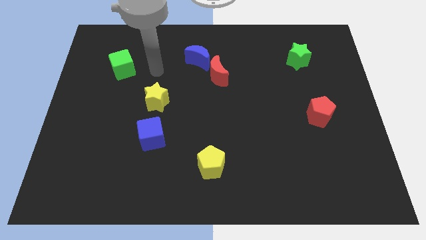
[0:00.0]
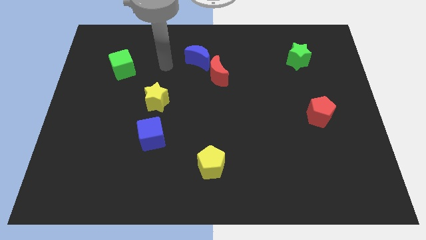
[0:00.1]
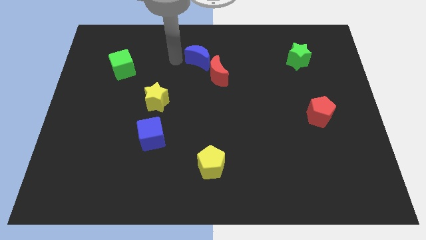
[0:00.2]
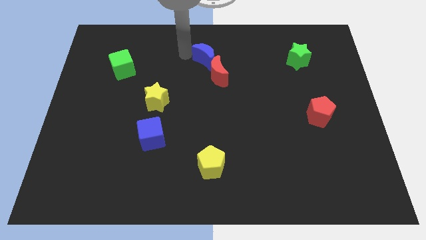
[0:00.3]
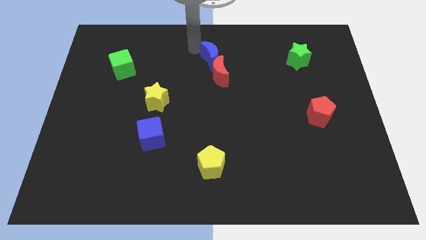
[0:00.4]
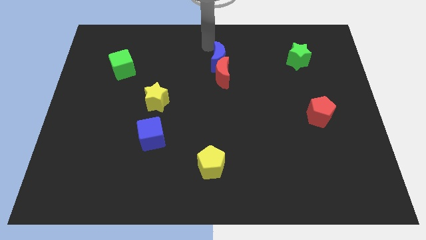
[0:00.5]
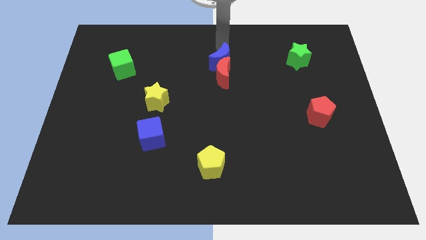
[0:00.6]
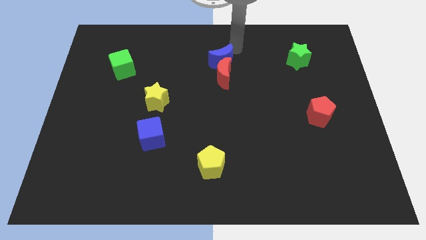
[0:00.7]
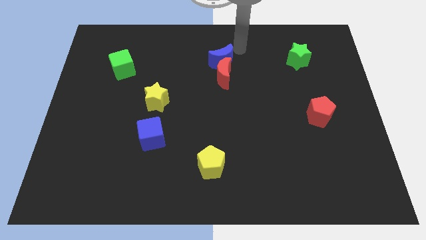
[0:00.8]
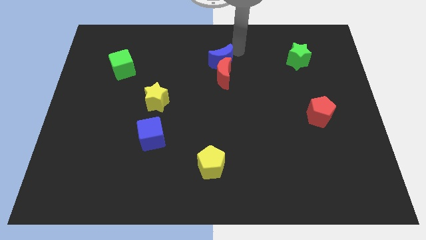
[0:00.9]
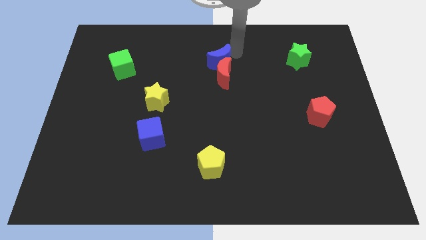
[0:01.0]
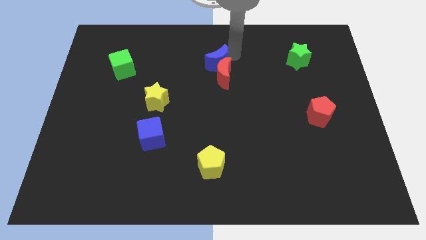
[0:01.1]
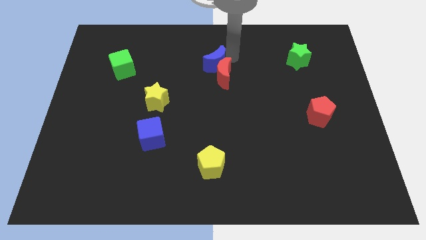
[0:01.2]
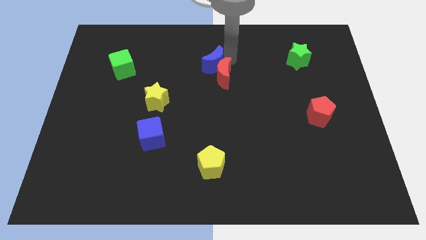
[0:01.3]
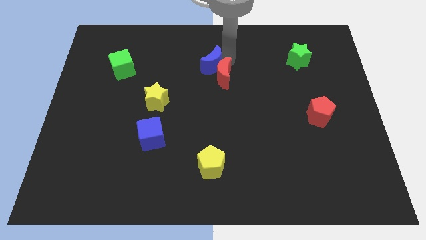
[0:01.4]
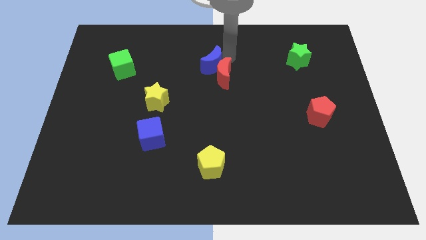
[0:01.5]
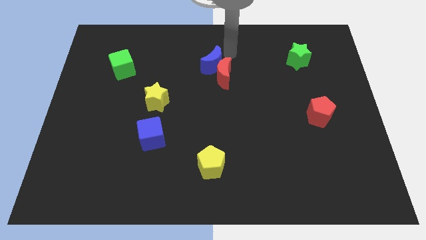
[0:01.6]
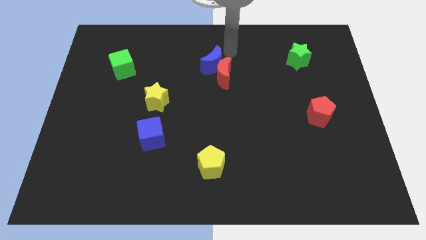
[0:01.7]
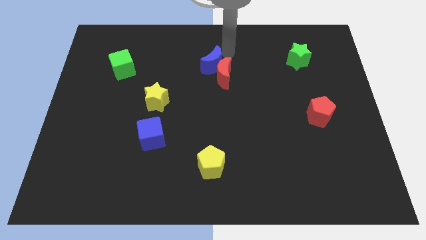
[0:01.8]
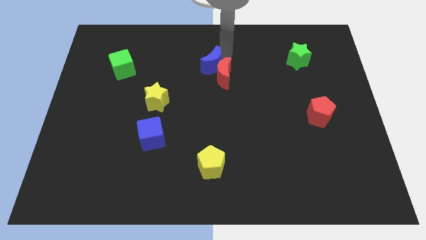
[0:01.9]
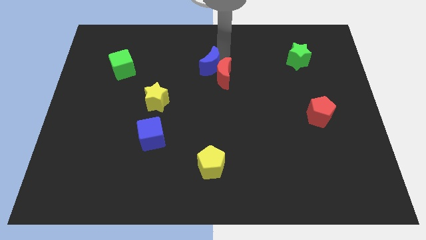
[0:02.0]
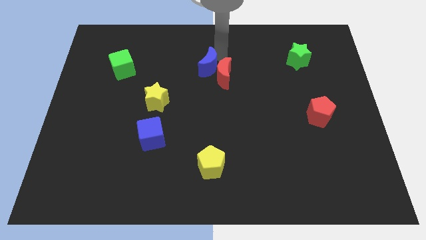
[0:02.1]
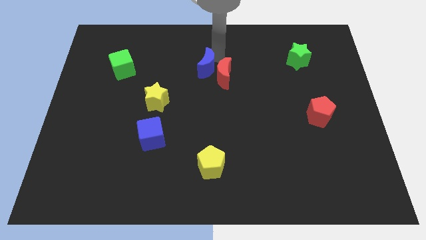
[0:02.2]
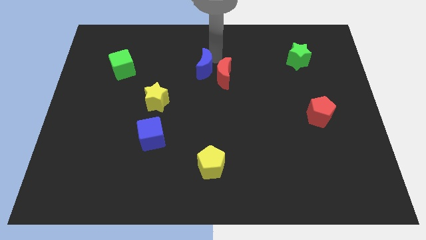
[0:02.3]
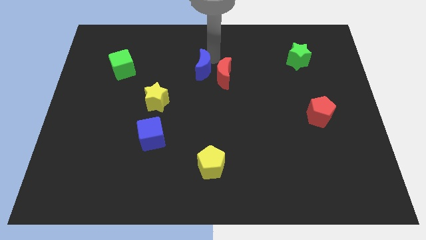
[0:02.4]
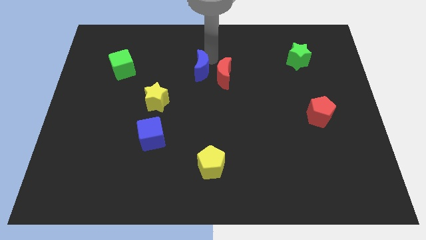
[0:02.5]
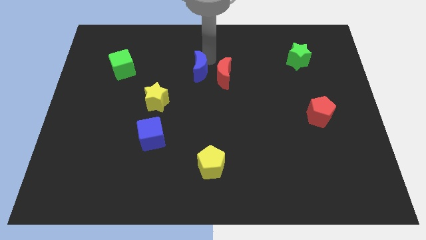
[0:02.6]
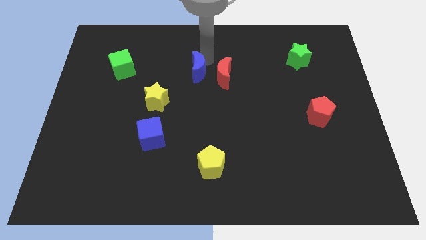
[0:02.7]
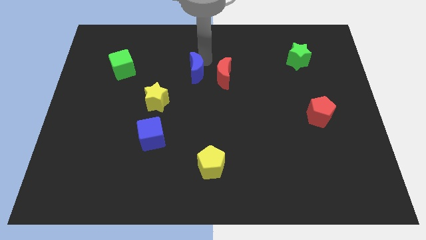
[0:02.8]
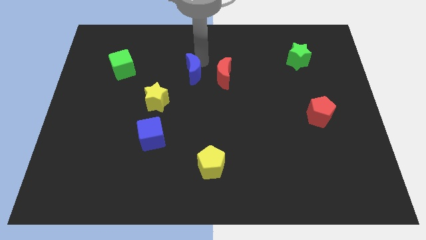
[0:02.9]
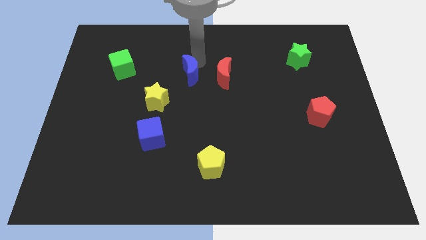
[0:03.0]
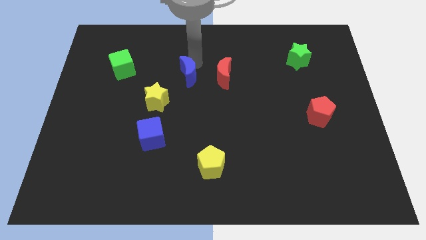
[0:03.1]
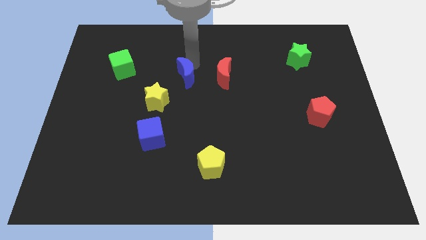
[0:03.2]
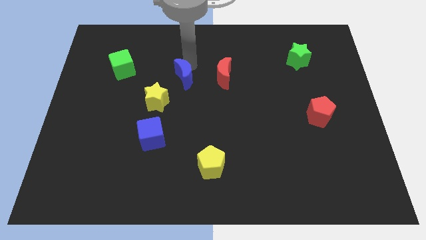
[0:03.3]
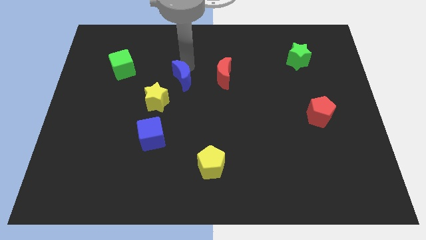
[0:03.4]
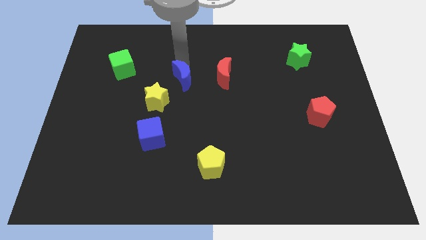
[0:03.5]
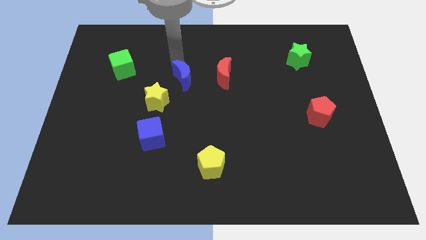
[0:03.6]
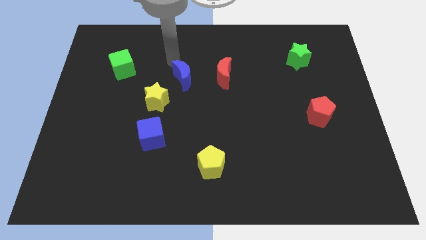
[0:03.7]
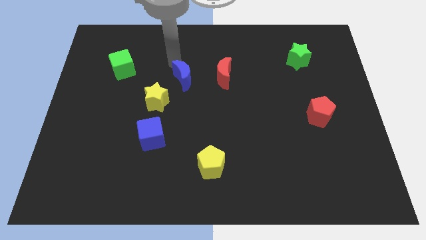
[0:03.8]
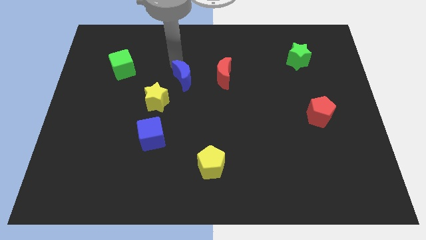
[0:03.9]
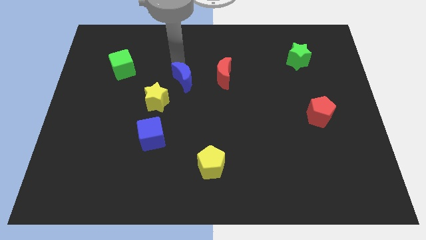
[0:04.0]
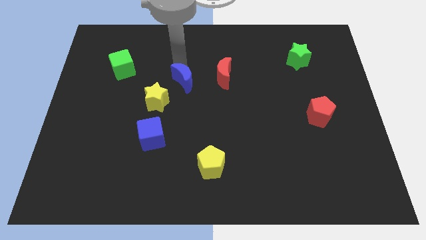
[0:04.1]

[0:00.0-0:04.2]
slide the blue moon a bit downwards

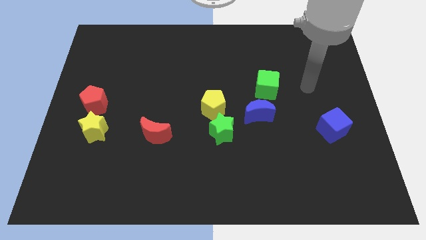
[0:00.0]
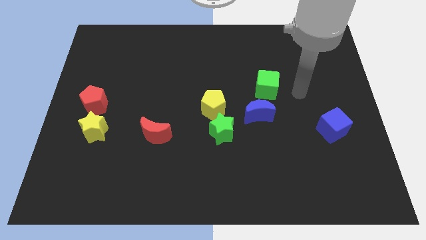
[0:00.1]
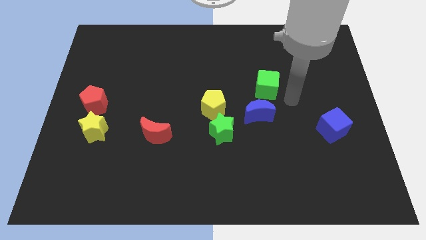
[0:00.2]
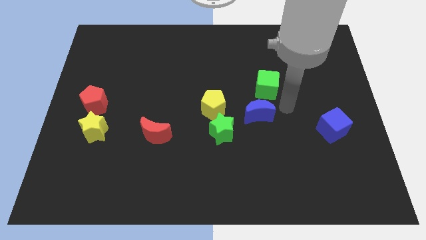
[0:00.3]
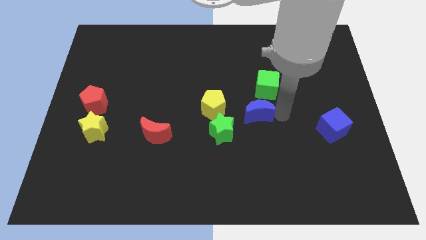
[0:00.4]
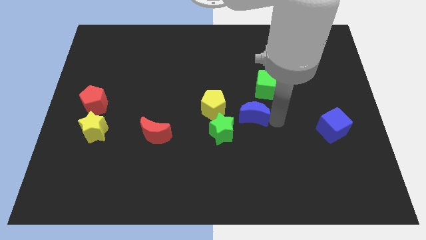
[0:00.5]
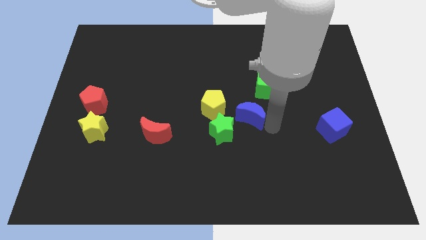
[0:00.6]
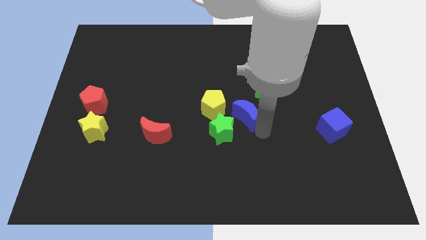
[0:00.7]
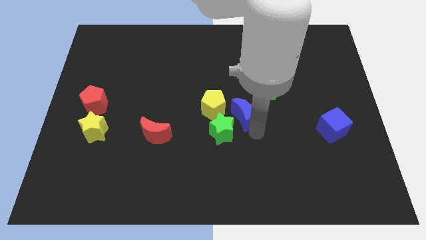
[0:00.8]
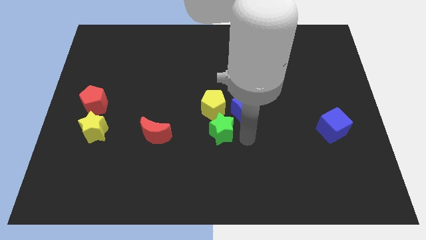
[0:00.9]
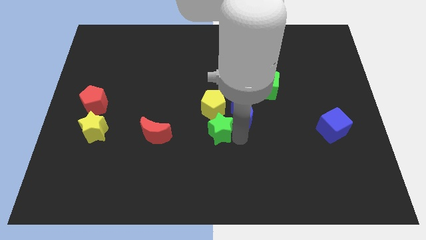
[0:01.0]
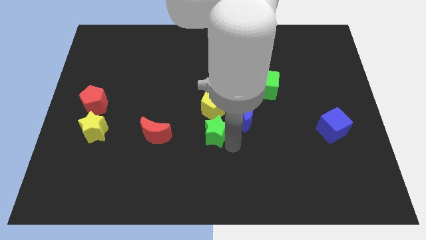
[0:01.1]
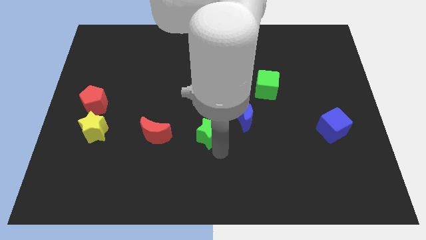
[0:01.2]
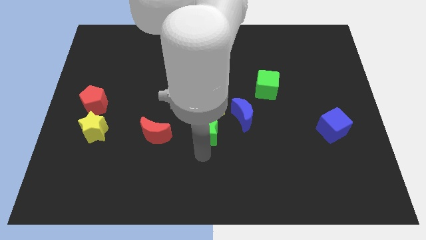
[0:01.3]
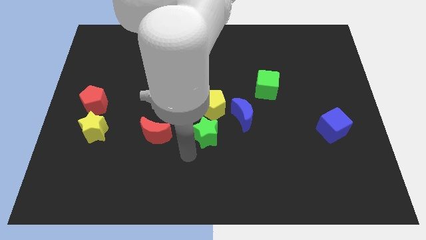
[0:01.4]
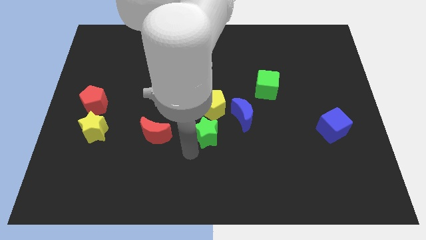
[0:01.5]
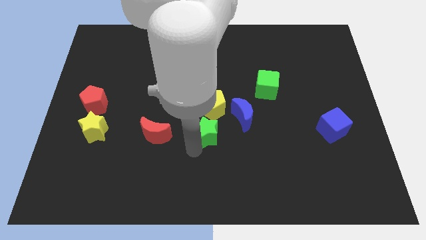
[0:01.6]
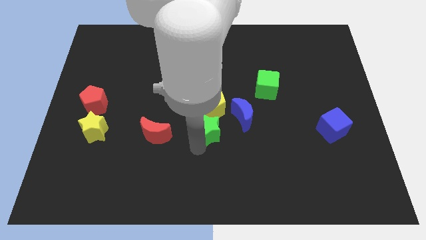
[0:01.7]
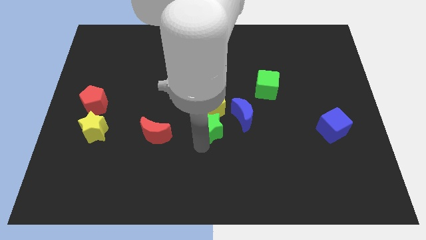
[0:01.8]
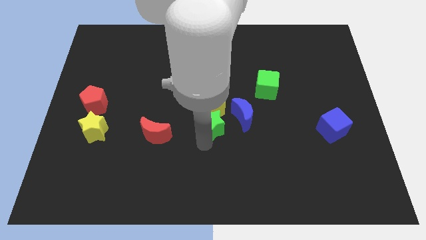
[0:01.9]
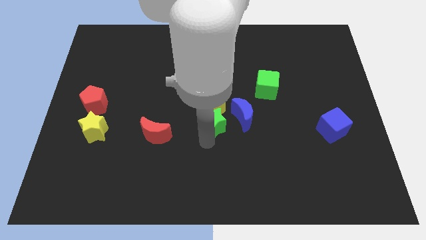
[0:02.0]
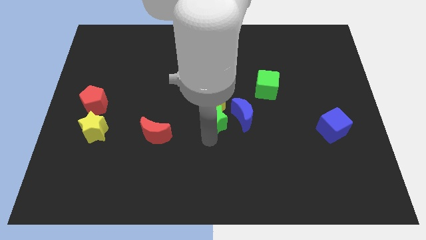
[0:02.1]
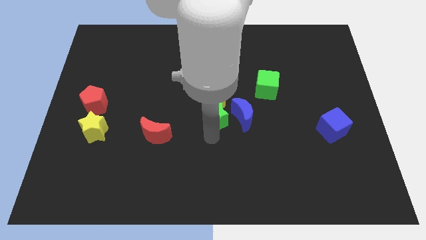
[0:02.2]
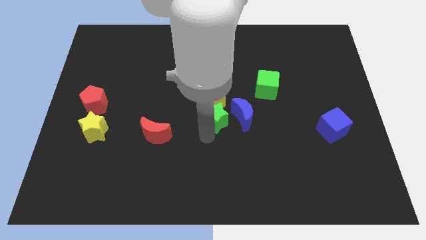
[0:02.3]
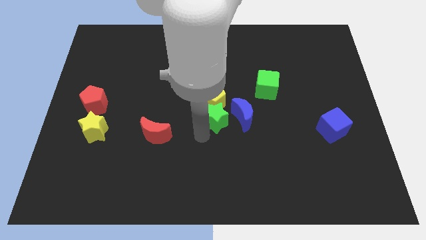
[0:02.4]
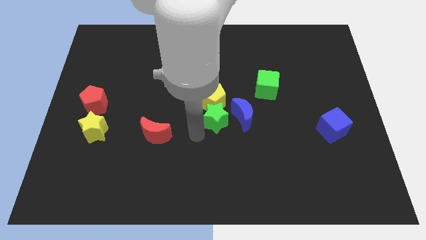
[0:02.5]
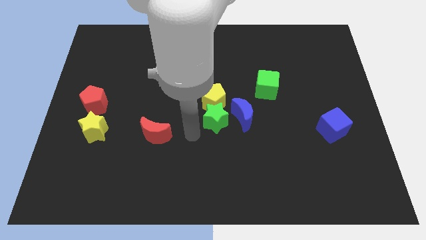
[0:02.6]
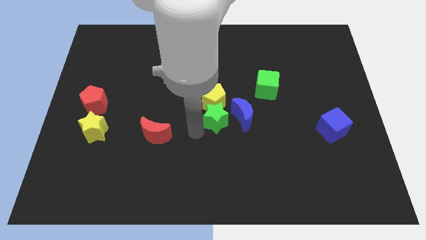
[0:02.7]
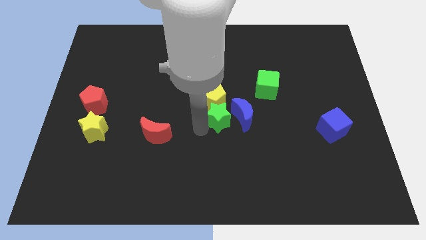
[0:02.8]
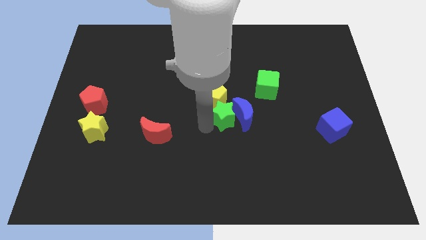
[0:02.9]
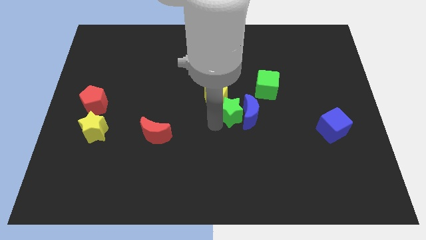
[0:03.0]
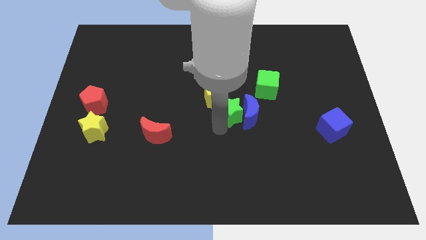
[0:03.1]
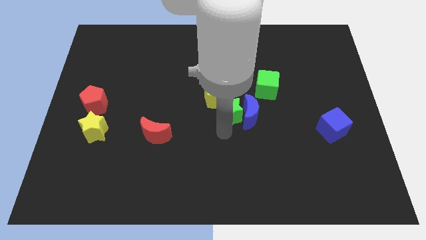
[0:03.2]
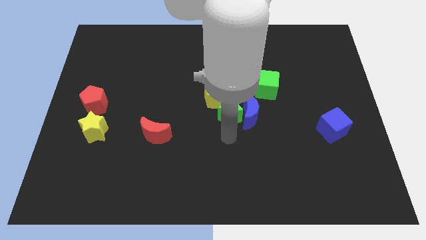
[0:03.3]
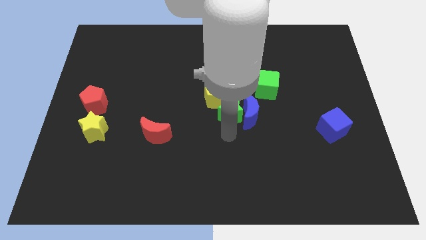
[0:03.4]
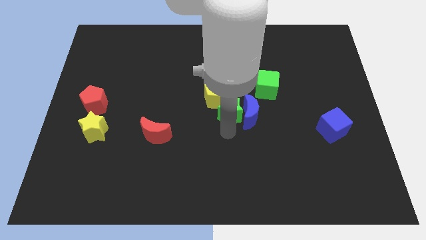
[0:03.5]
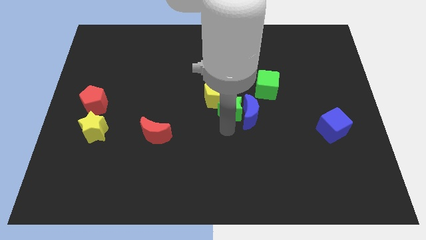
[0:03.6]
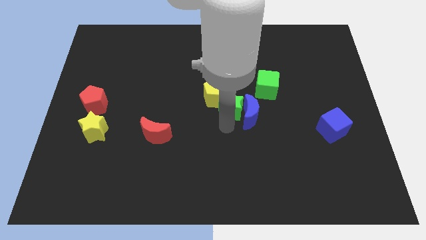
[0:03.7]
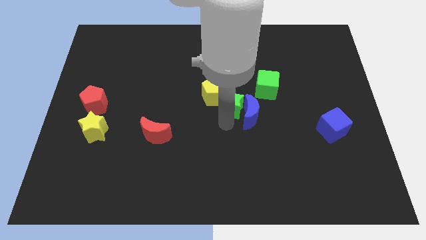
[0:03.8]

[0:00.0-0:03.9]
slightly push the green star upwards
